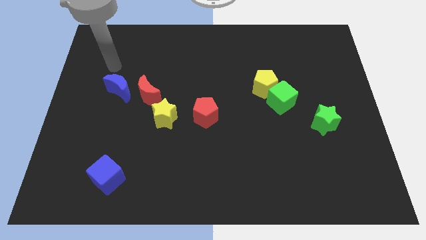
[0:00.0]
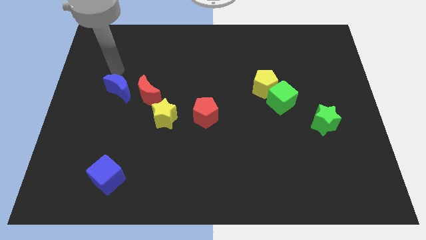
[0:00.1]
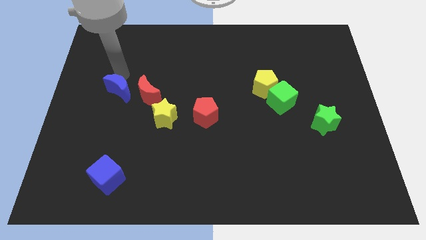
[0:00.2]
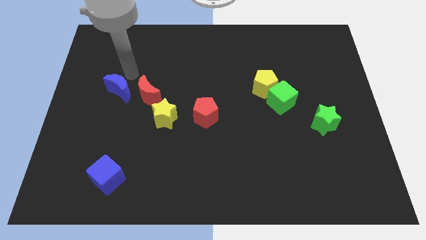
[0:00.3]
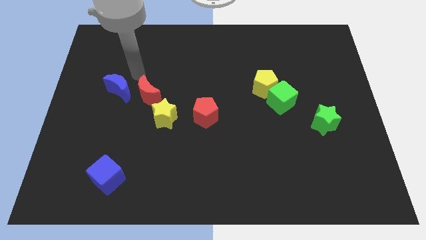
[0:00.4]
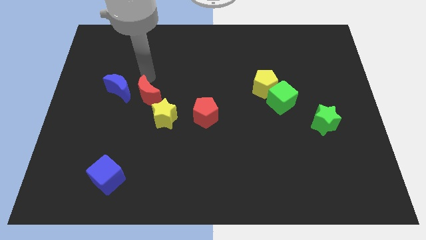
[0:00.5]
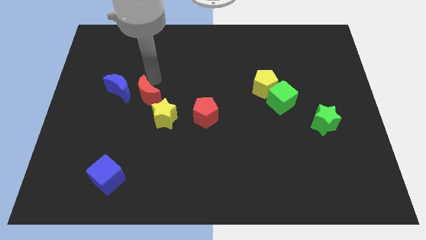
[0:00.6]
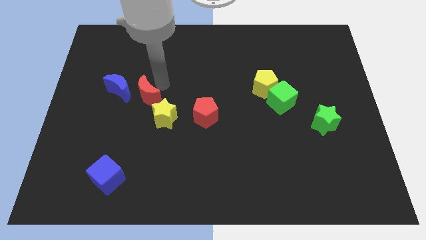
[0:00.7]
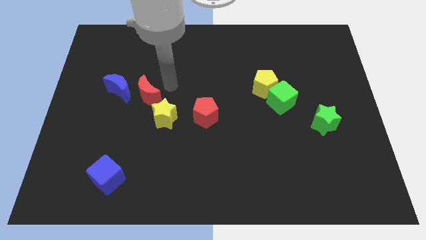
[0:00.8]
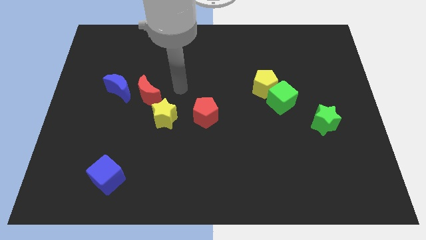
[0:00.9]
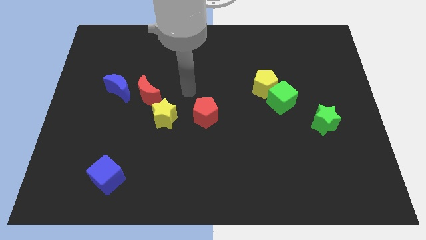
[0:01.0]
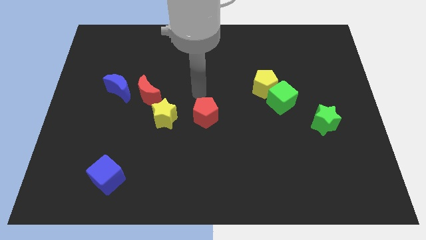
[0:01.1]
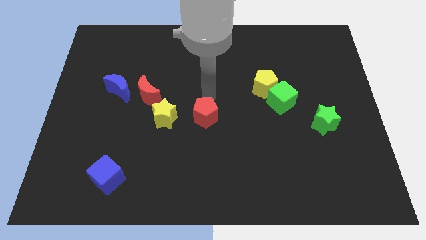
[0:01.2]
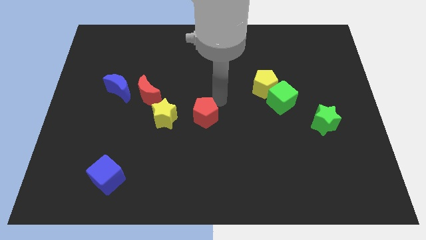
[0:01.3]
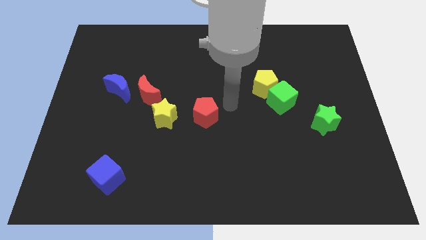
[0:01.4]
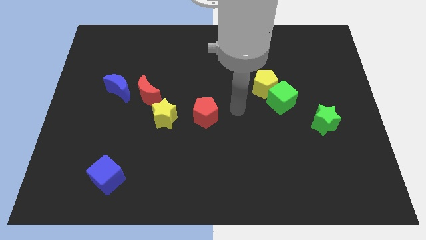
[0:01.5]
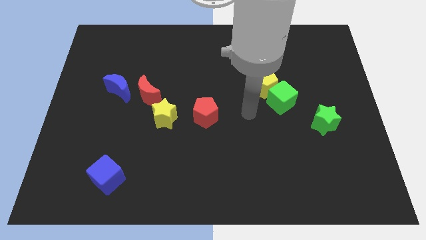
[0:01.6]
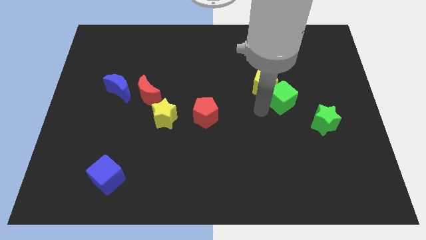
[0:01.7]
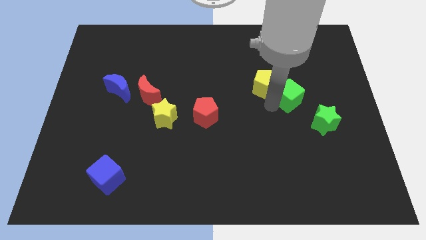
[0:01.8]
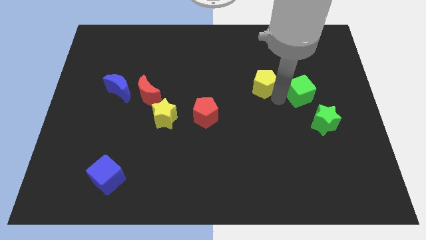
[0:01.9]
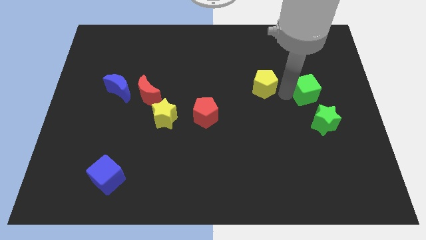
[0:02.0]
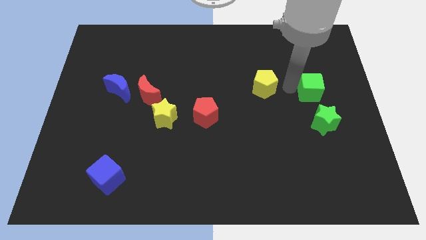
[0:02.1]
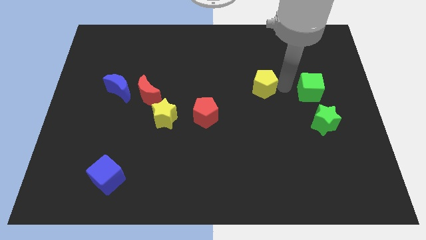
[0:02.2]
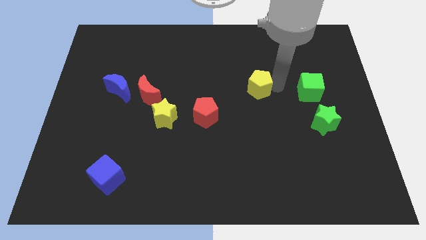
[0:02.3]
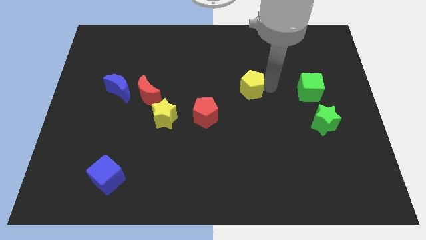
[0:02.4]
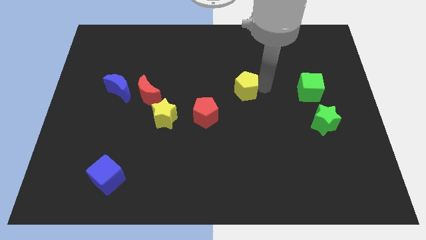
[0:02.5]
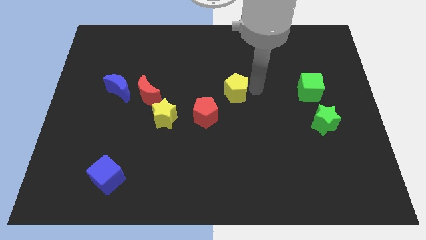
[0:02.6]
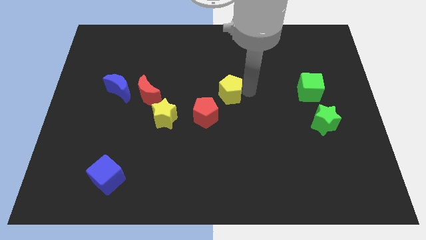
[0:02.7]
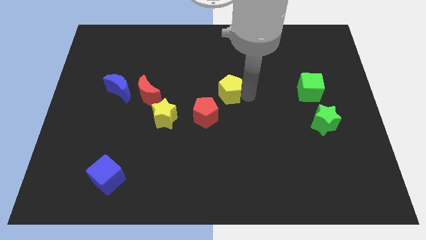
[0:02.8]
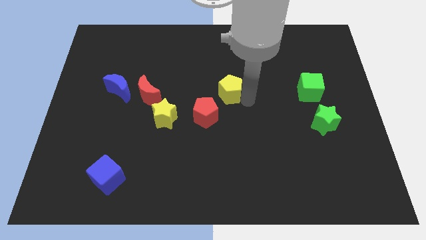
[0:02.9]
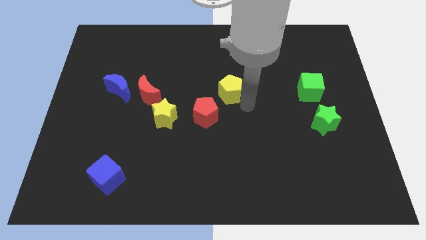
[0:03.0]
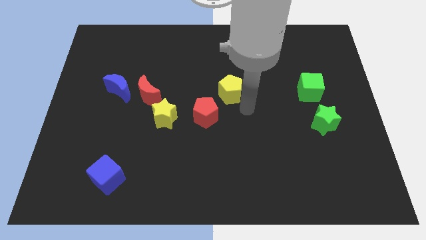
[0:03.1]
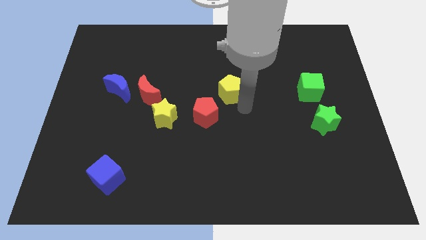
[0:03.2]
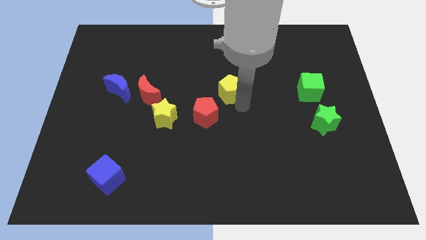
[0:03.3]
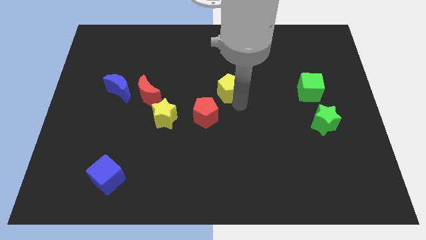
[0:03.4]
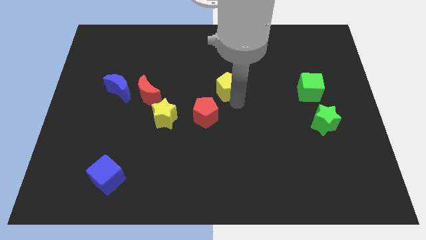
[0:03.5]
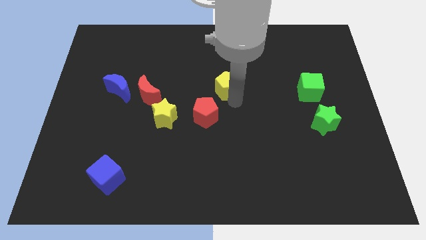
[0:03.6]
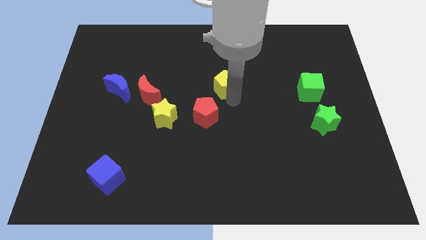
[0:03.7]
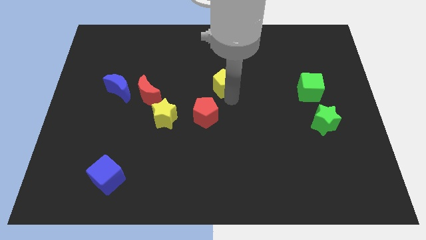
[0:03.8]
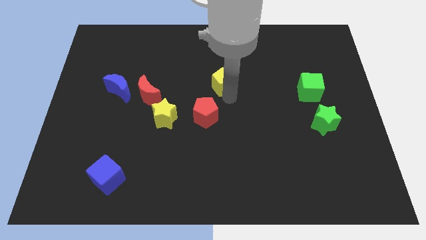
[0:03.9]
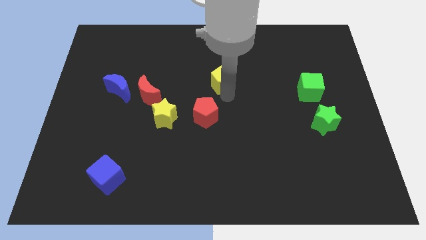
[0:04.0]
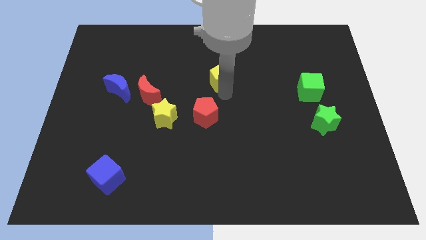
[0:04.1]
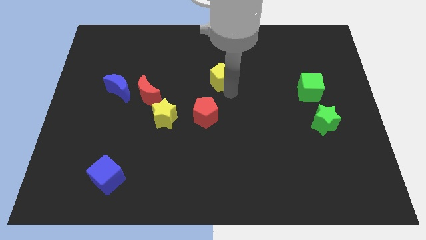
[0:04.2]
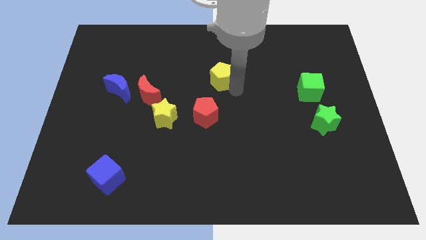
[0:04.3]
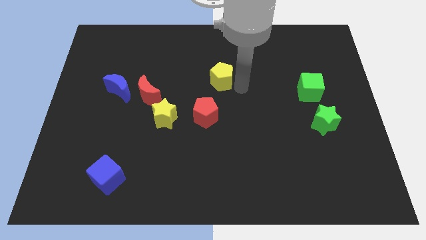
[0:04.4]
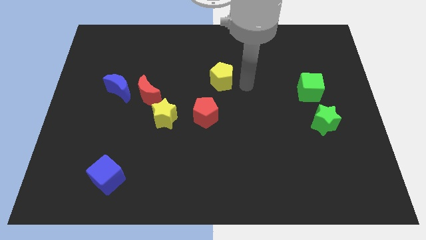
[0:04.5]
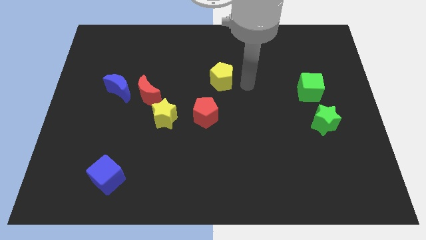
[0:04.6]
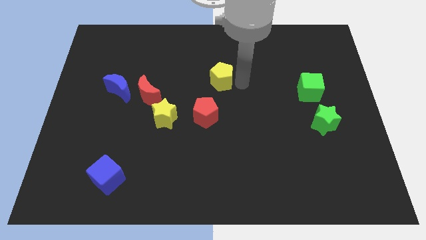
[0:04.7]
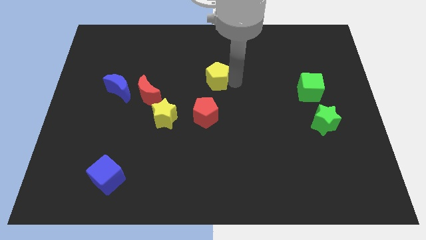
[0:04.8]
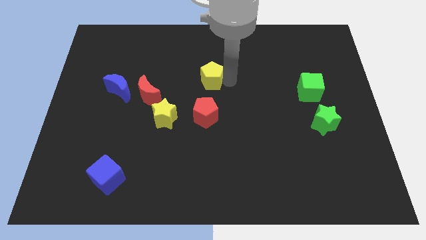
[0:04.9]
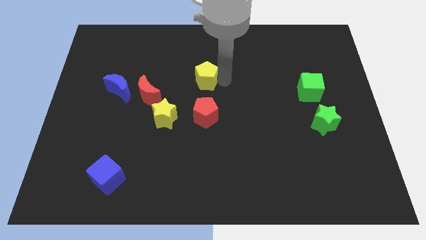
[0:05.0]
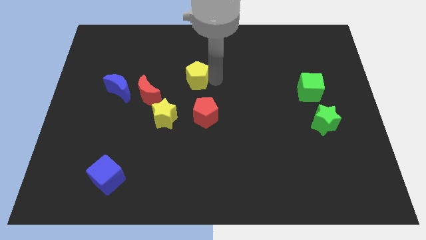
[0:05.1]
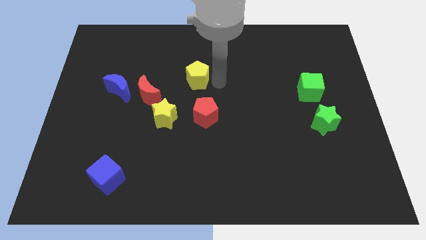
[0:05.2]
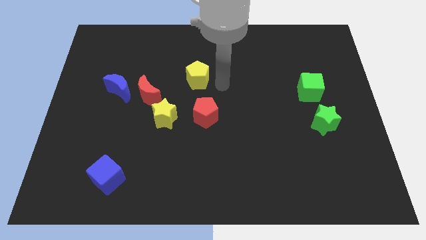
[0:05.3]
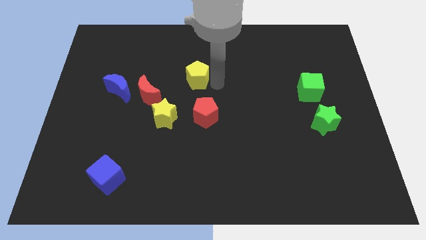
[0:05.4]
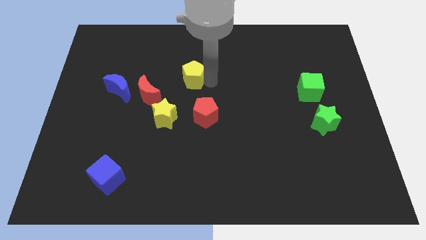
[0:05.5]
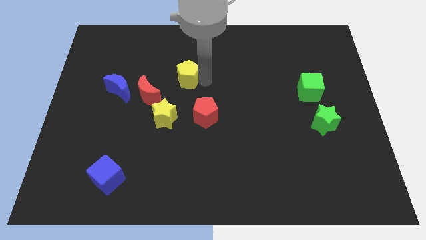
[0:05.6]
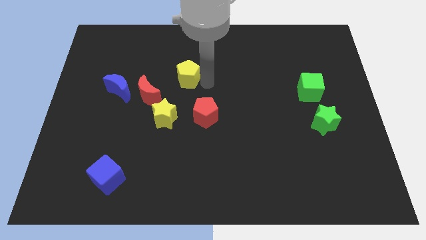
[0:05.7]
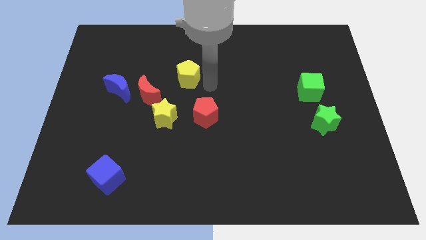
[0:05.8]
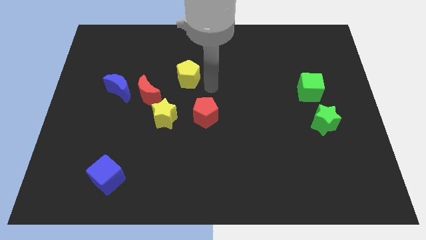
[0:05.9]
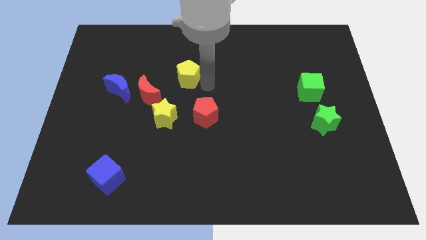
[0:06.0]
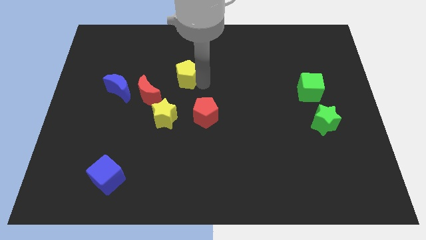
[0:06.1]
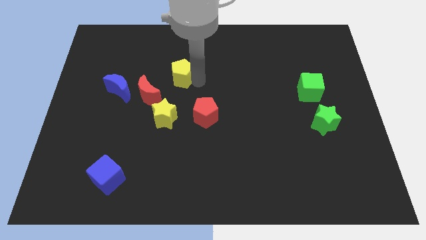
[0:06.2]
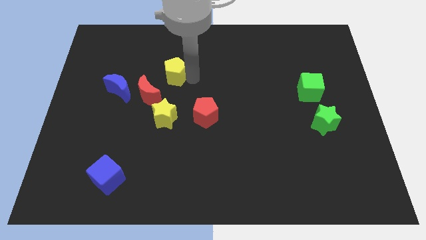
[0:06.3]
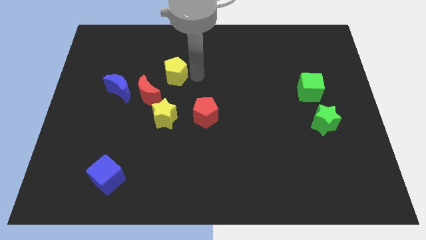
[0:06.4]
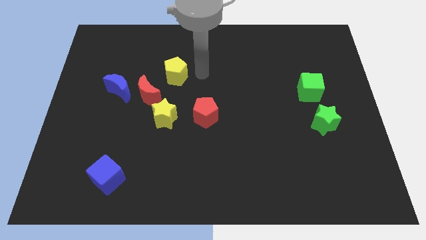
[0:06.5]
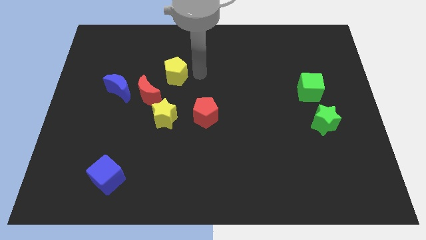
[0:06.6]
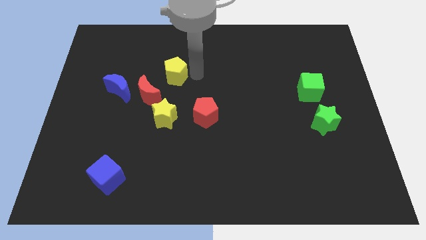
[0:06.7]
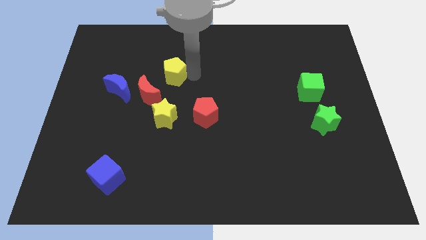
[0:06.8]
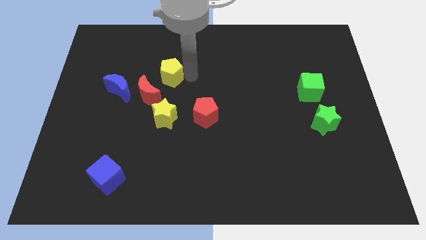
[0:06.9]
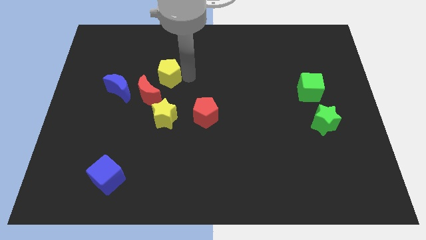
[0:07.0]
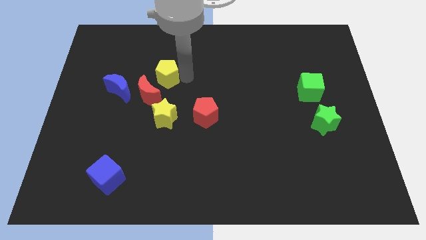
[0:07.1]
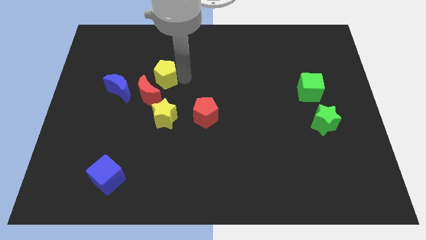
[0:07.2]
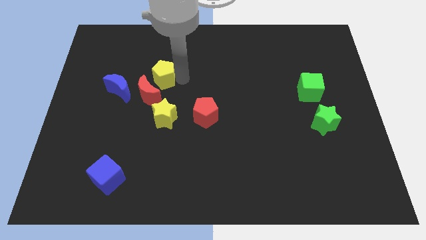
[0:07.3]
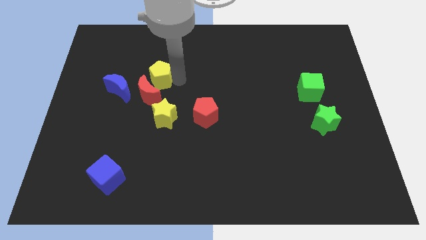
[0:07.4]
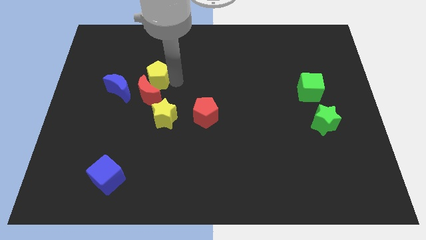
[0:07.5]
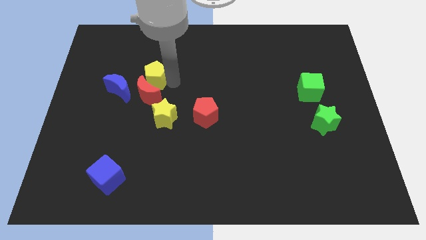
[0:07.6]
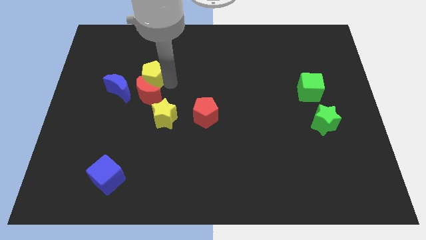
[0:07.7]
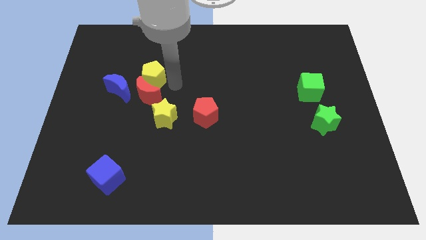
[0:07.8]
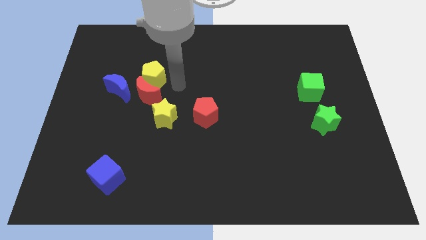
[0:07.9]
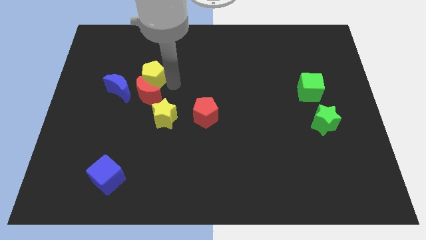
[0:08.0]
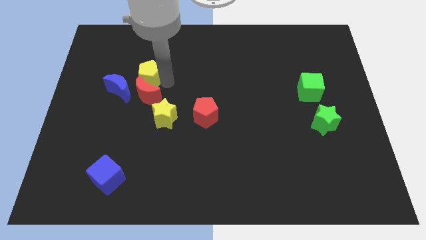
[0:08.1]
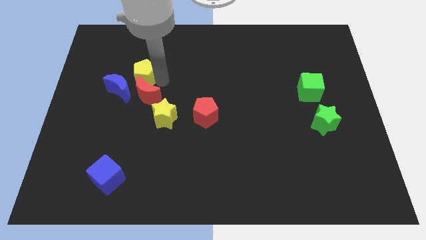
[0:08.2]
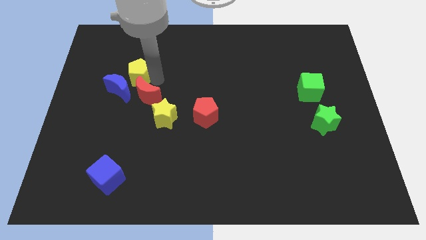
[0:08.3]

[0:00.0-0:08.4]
put the yellow pentagon towards the blue moon
